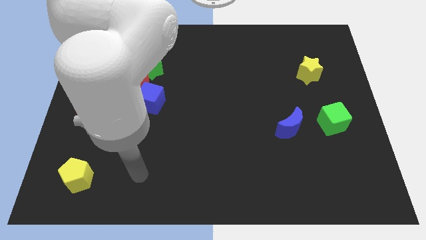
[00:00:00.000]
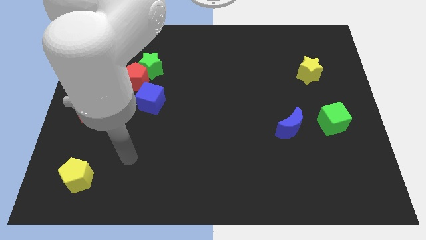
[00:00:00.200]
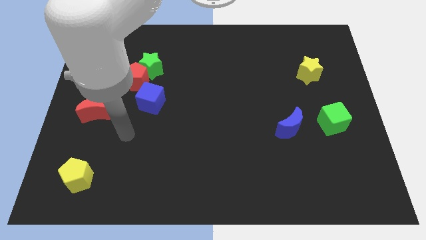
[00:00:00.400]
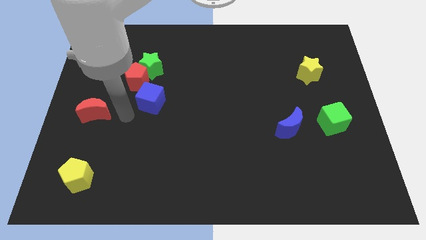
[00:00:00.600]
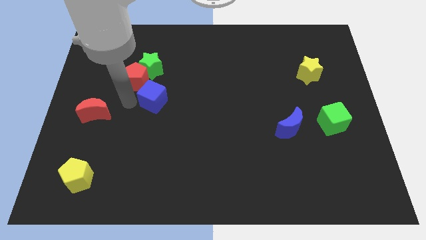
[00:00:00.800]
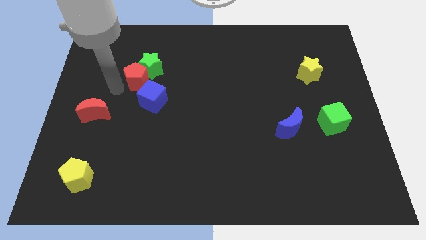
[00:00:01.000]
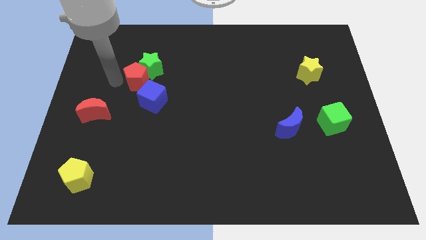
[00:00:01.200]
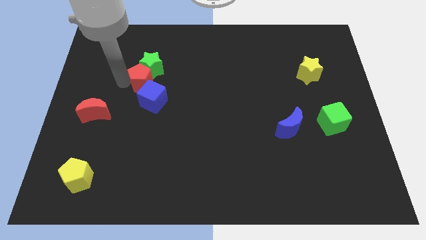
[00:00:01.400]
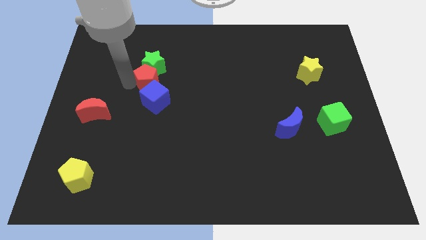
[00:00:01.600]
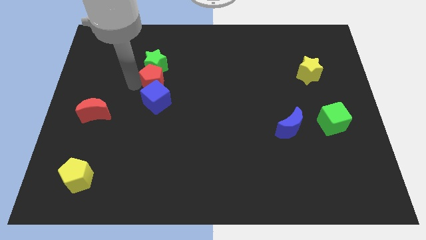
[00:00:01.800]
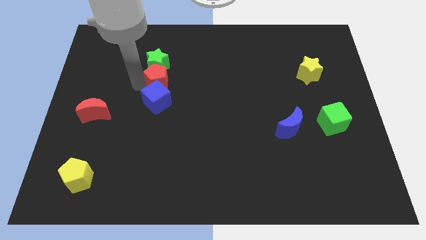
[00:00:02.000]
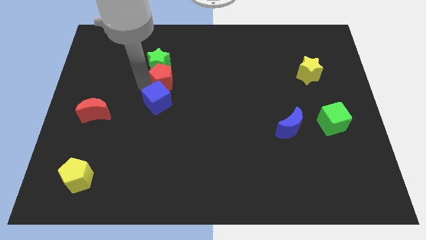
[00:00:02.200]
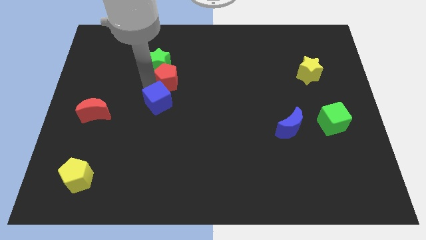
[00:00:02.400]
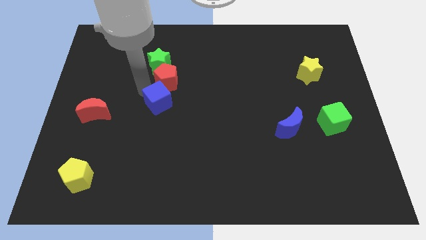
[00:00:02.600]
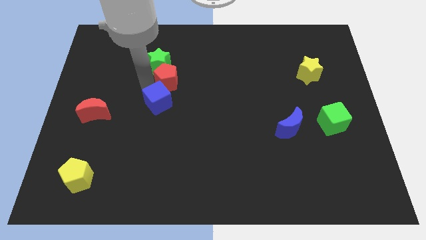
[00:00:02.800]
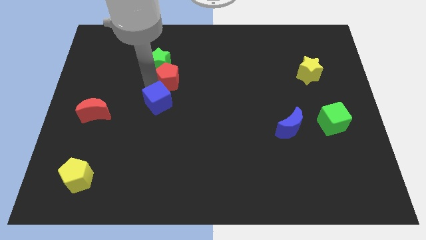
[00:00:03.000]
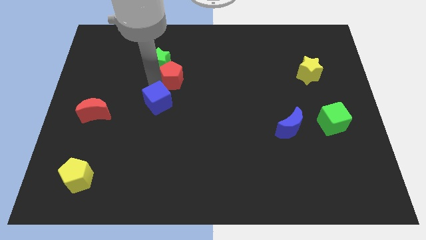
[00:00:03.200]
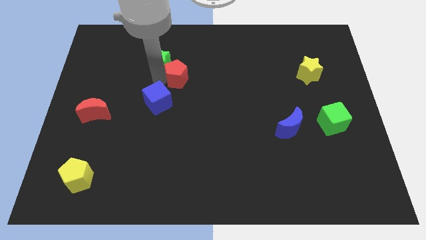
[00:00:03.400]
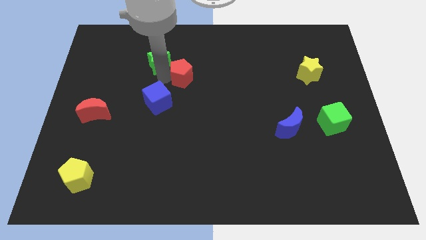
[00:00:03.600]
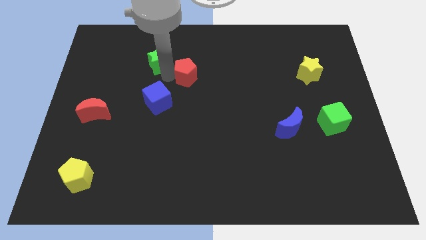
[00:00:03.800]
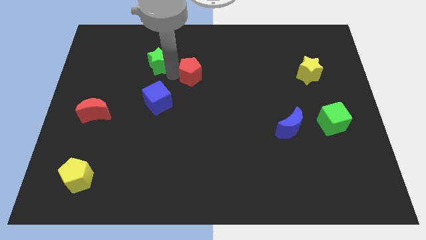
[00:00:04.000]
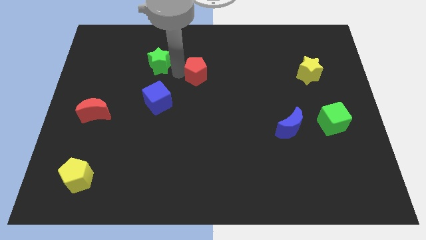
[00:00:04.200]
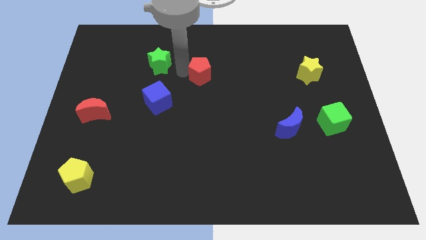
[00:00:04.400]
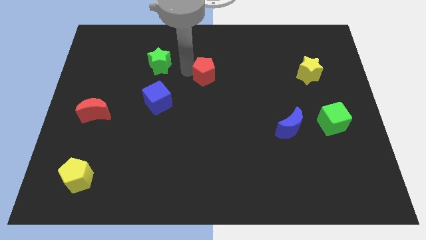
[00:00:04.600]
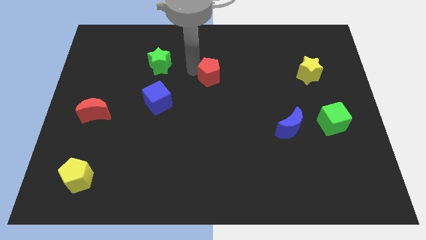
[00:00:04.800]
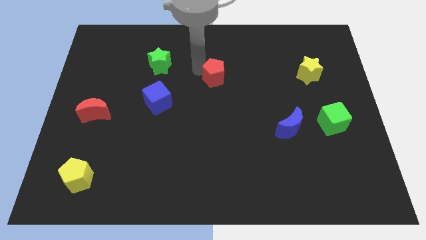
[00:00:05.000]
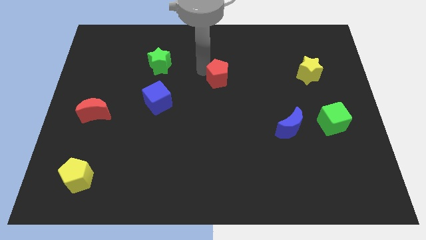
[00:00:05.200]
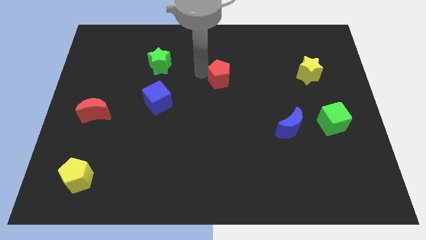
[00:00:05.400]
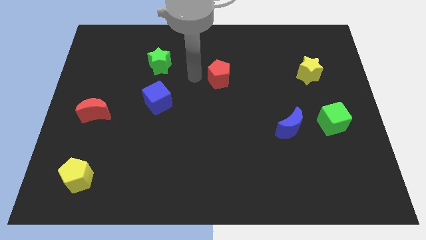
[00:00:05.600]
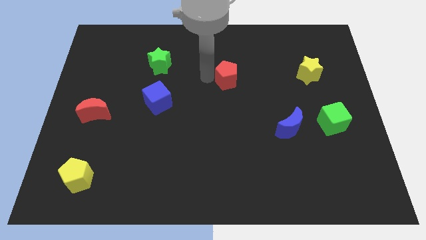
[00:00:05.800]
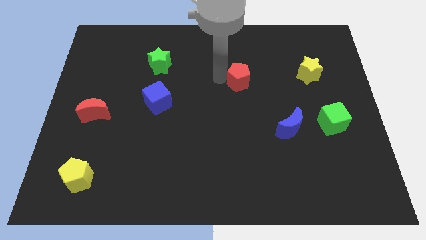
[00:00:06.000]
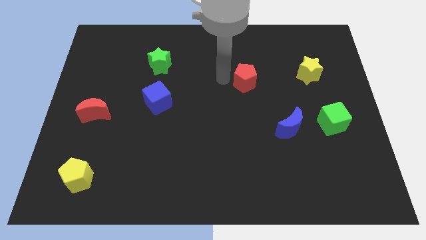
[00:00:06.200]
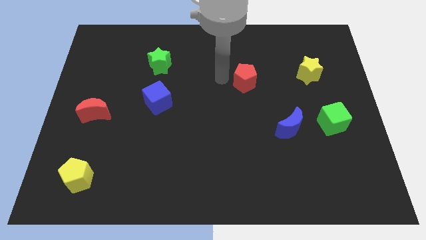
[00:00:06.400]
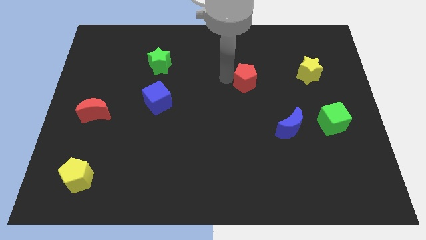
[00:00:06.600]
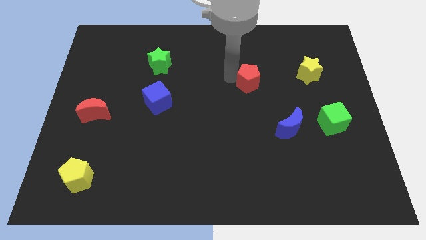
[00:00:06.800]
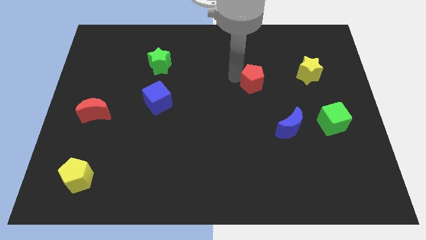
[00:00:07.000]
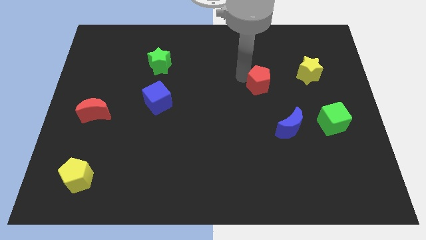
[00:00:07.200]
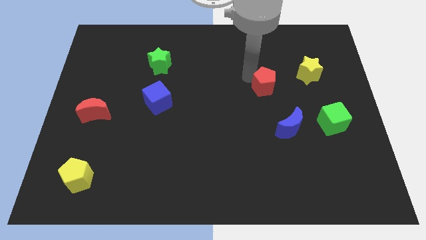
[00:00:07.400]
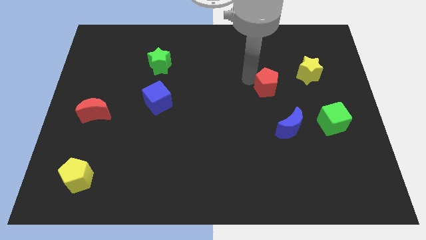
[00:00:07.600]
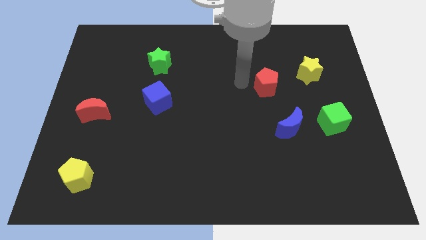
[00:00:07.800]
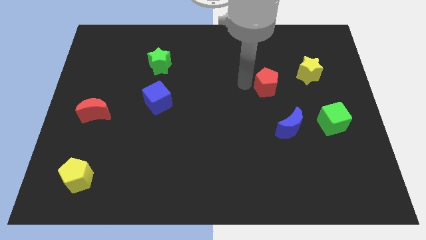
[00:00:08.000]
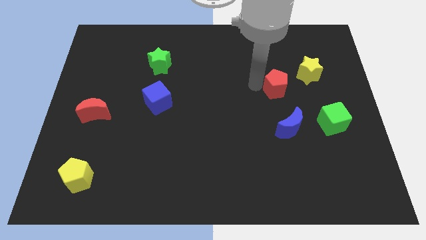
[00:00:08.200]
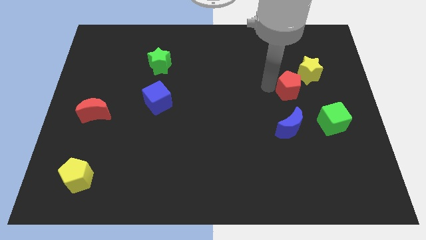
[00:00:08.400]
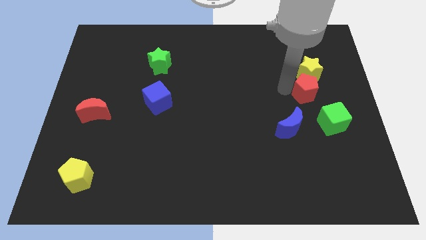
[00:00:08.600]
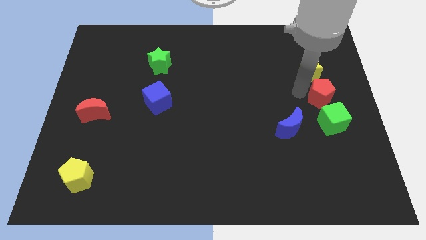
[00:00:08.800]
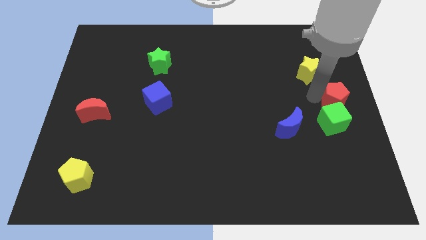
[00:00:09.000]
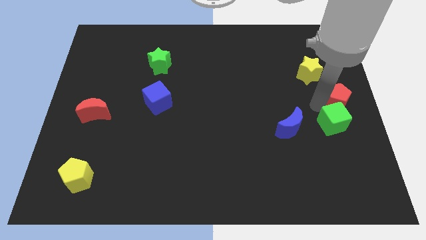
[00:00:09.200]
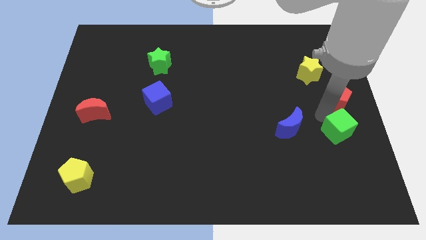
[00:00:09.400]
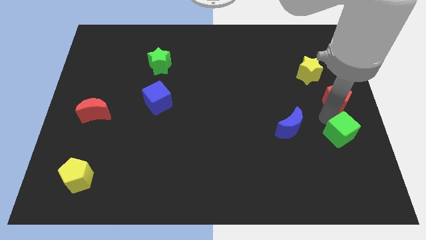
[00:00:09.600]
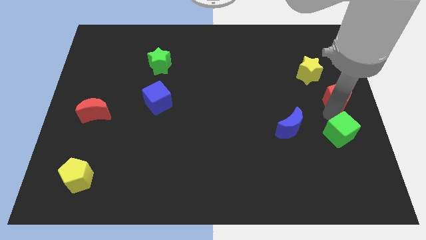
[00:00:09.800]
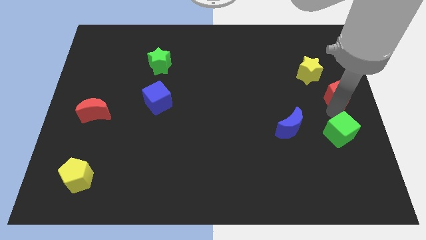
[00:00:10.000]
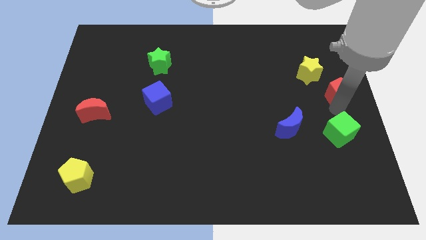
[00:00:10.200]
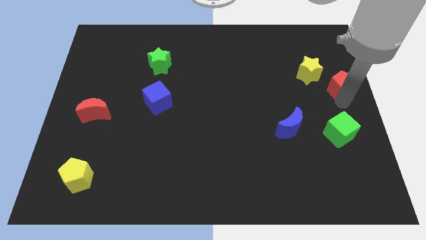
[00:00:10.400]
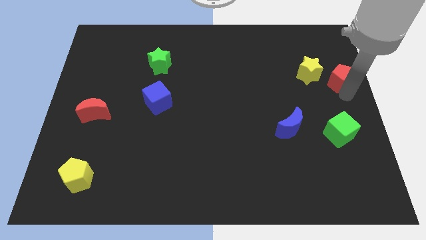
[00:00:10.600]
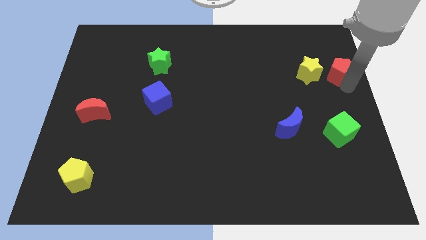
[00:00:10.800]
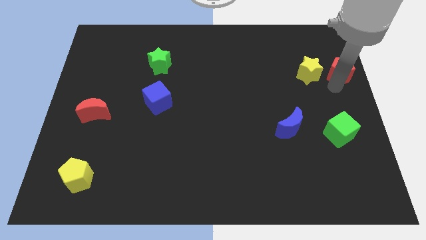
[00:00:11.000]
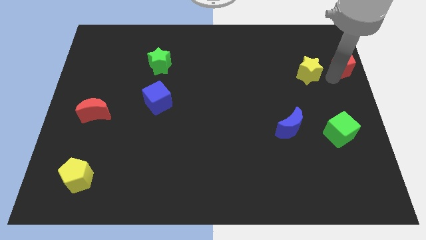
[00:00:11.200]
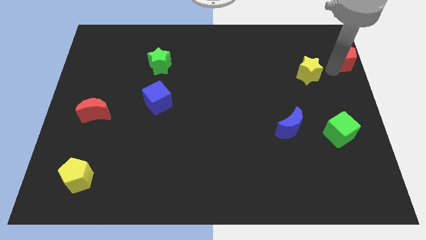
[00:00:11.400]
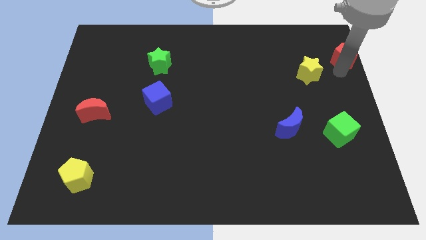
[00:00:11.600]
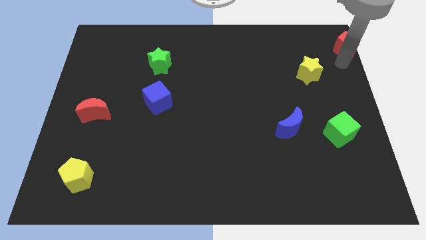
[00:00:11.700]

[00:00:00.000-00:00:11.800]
slide the red pentagon to the upper right corner

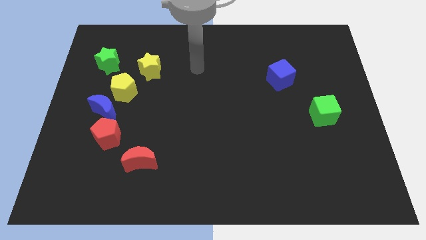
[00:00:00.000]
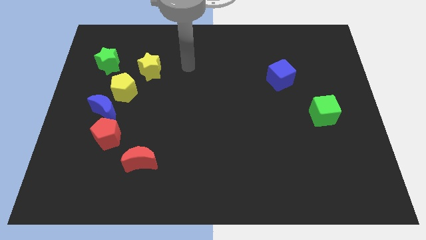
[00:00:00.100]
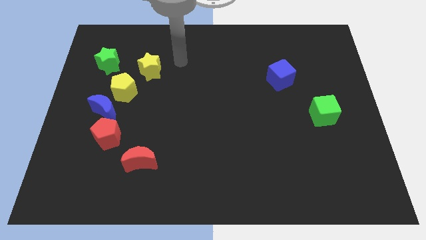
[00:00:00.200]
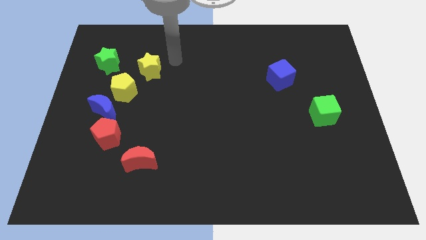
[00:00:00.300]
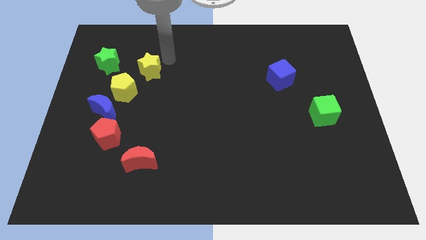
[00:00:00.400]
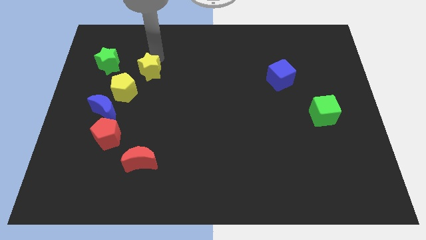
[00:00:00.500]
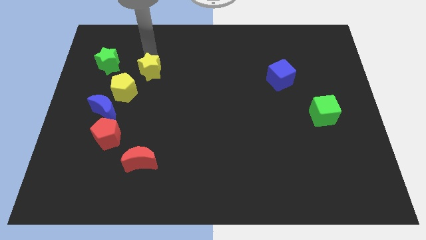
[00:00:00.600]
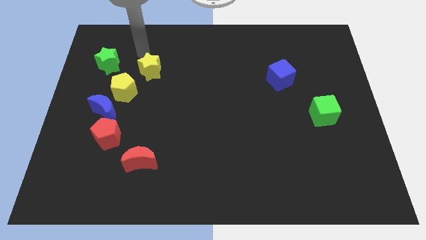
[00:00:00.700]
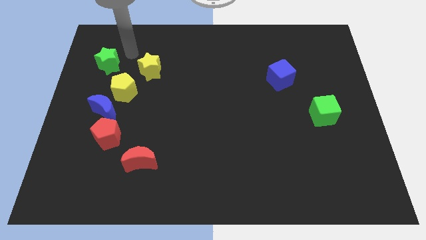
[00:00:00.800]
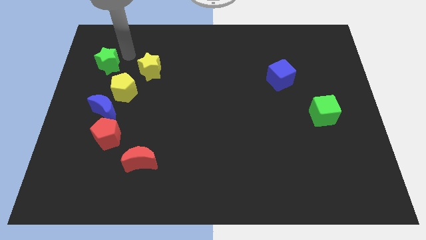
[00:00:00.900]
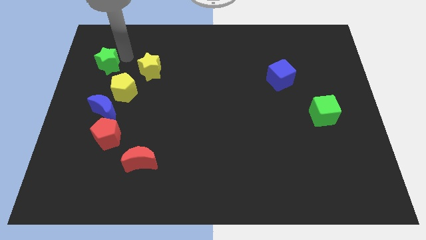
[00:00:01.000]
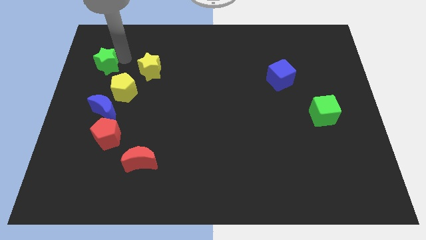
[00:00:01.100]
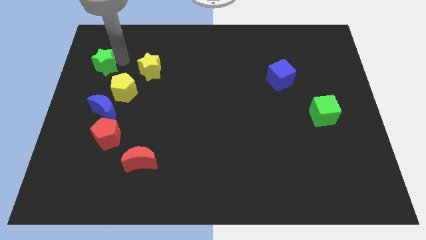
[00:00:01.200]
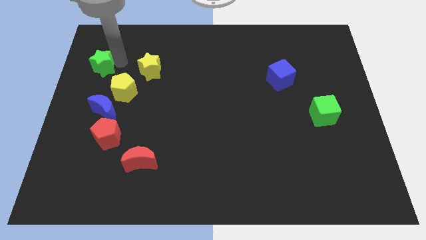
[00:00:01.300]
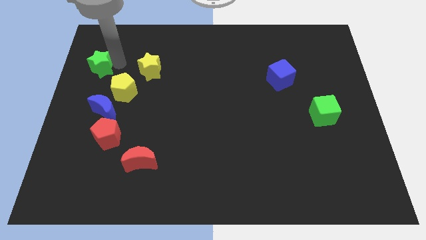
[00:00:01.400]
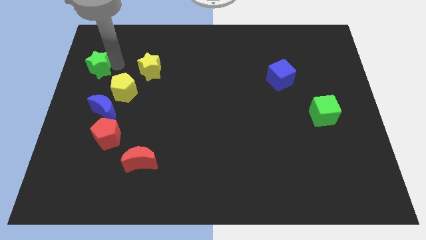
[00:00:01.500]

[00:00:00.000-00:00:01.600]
slide the green star to the center left
